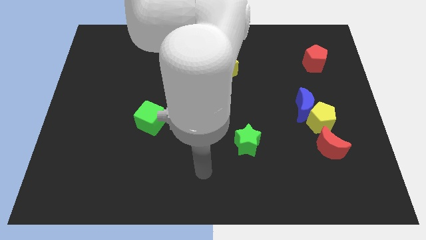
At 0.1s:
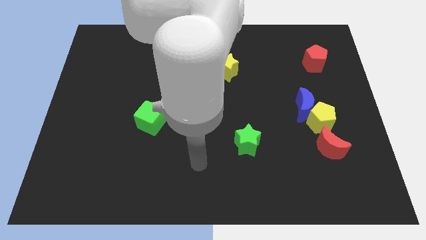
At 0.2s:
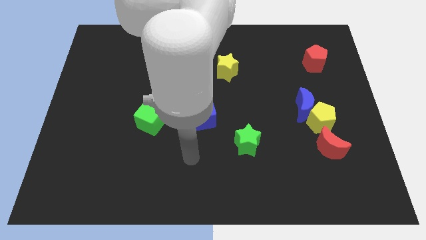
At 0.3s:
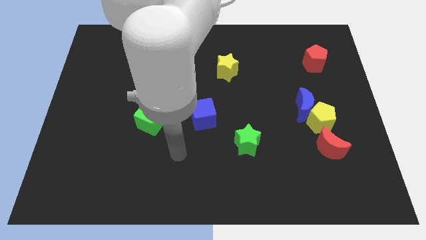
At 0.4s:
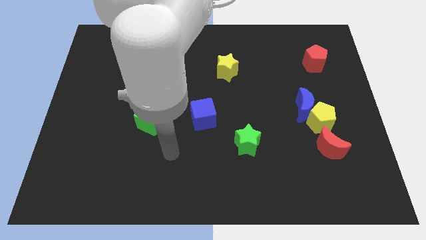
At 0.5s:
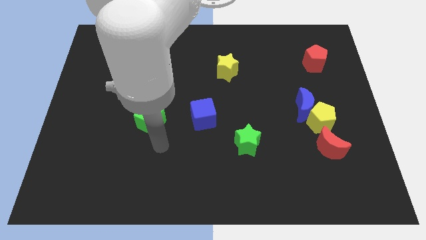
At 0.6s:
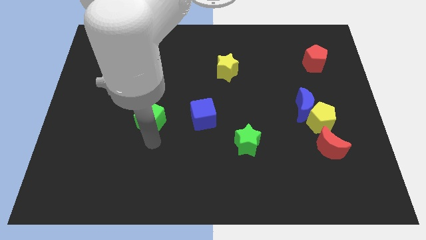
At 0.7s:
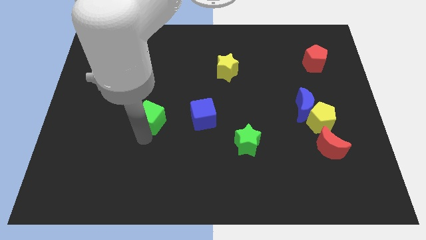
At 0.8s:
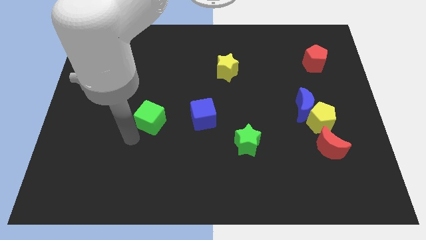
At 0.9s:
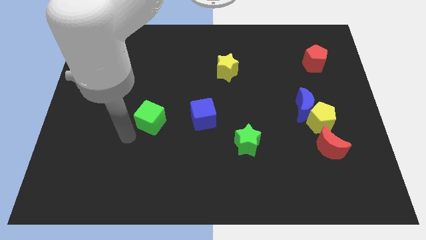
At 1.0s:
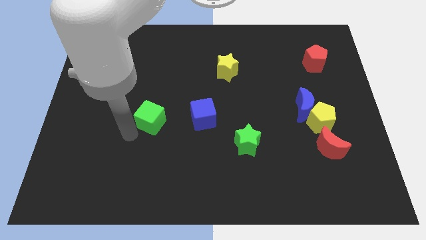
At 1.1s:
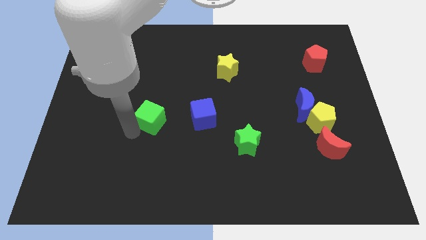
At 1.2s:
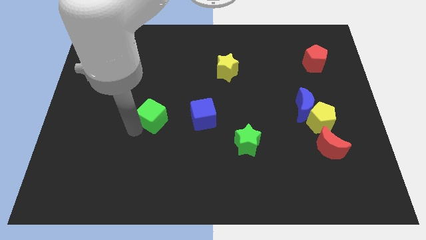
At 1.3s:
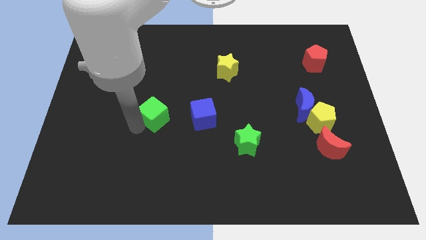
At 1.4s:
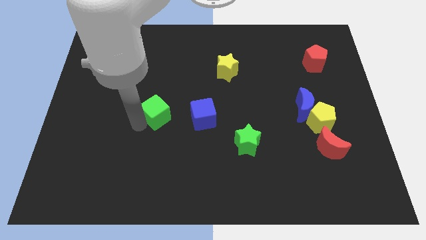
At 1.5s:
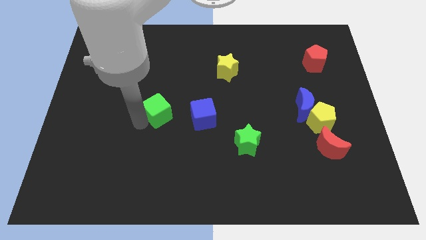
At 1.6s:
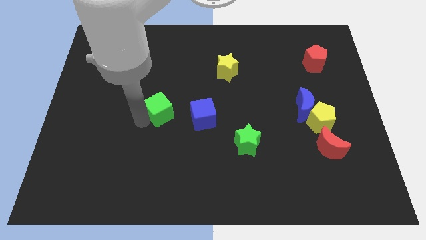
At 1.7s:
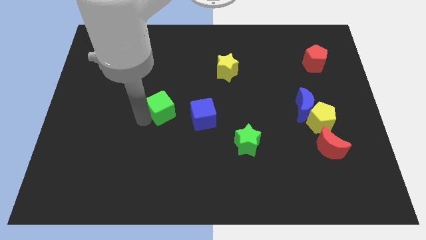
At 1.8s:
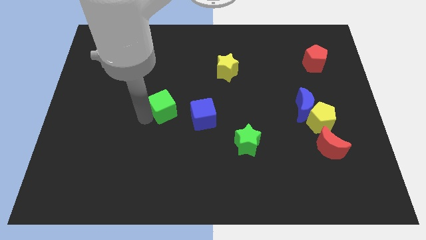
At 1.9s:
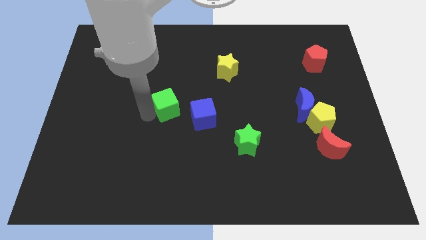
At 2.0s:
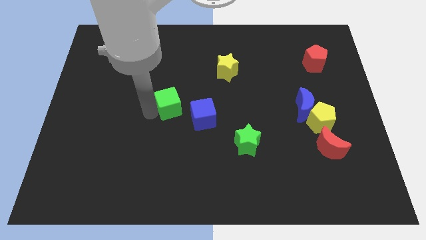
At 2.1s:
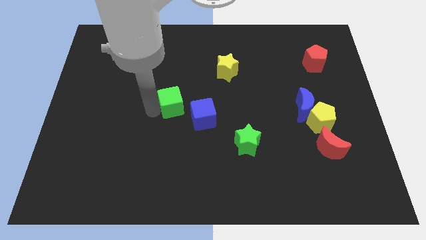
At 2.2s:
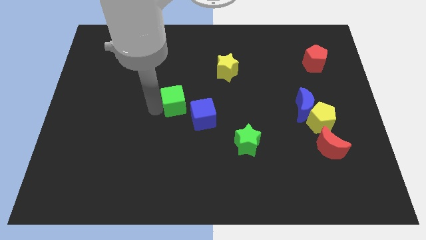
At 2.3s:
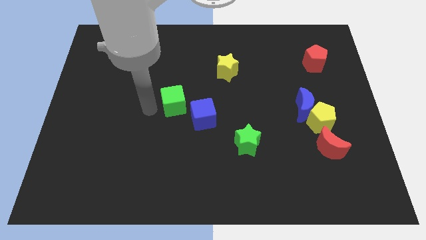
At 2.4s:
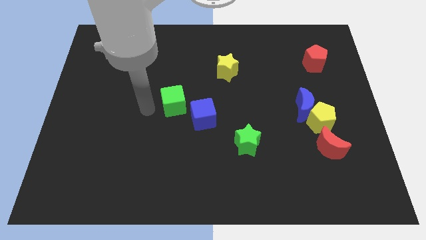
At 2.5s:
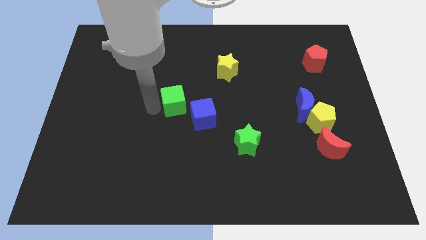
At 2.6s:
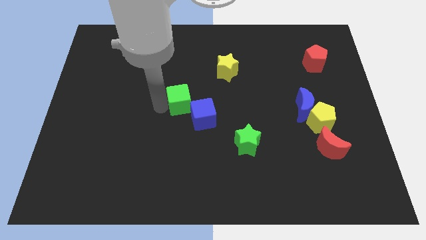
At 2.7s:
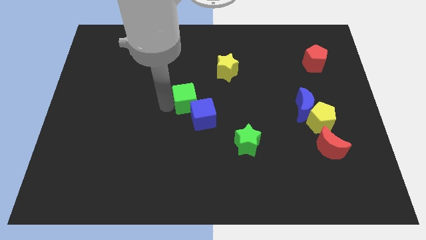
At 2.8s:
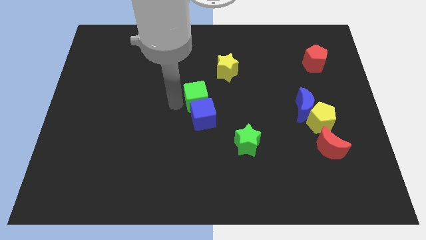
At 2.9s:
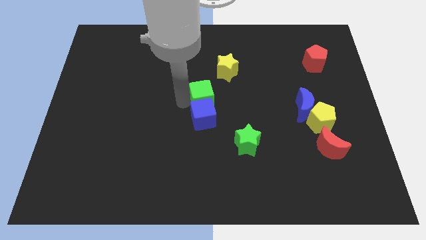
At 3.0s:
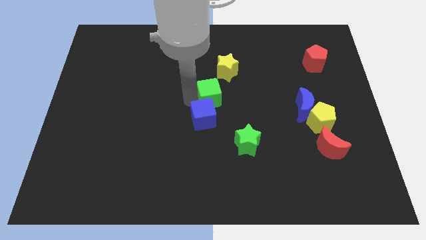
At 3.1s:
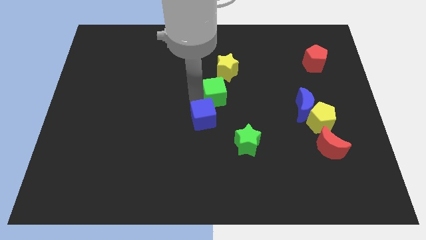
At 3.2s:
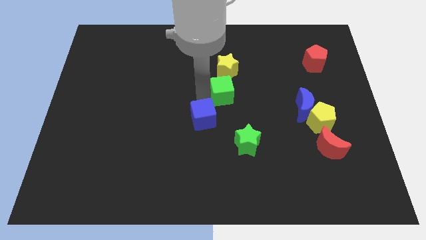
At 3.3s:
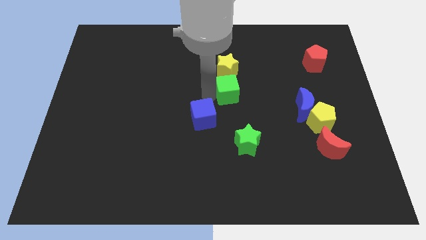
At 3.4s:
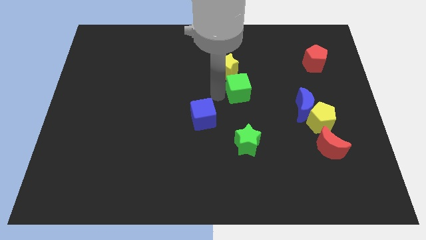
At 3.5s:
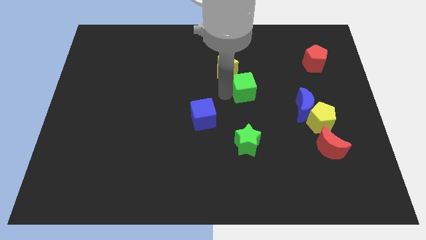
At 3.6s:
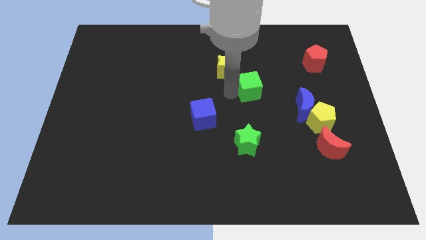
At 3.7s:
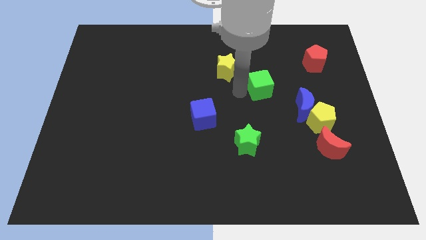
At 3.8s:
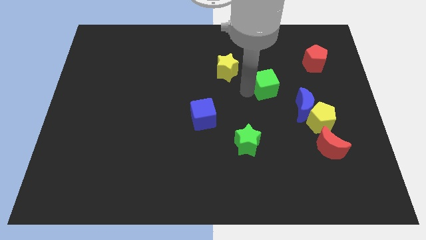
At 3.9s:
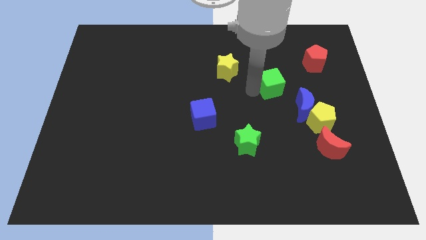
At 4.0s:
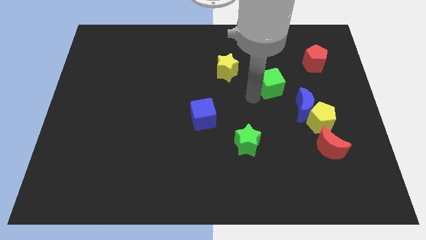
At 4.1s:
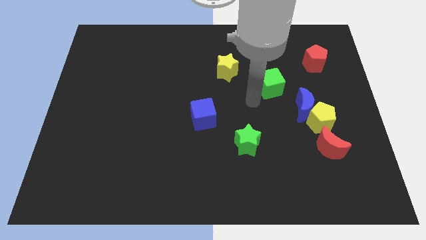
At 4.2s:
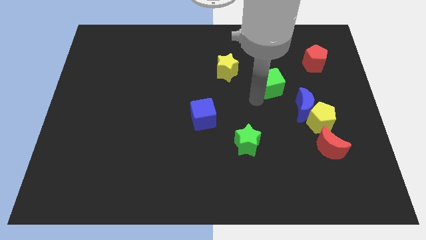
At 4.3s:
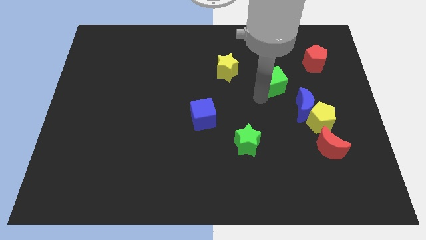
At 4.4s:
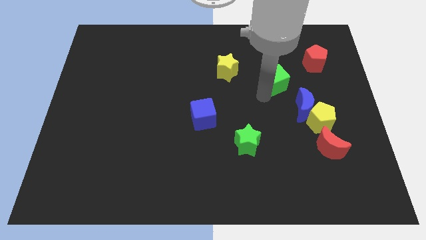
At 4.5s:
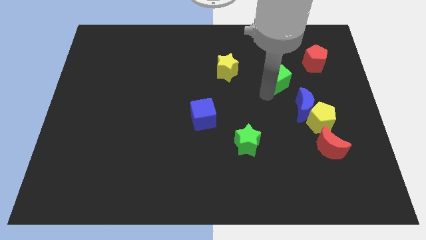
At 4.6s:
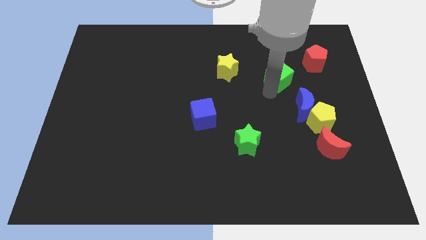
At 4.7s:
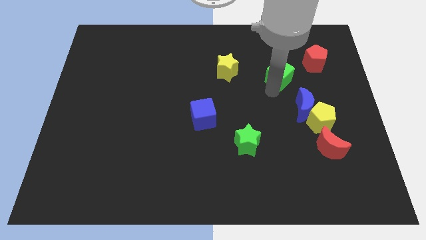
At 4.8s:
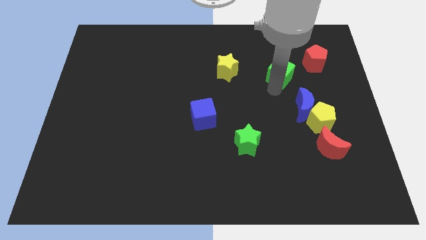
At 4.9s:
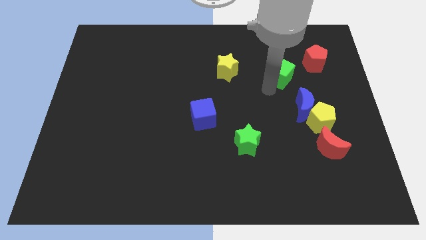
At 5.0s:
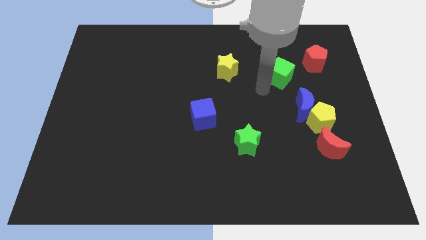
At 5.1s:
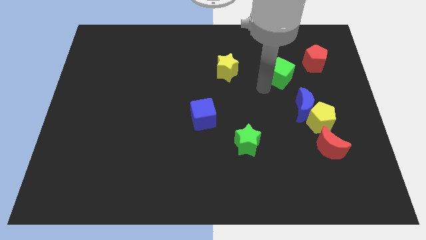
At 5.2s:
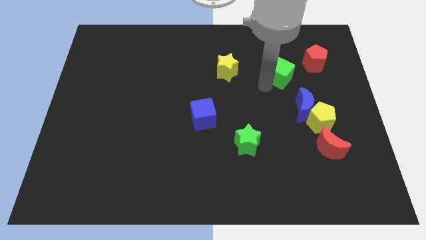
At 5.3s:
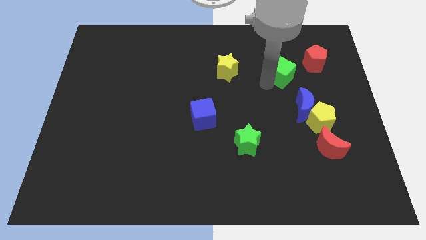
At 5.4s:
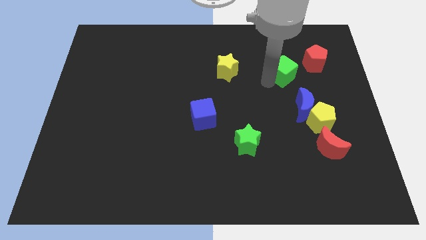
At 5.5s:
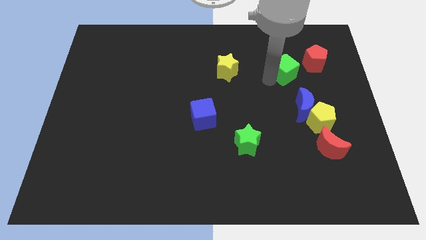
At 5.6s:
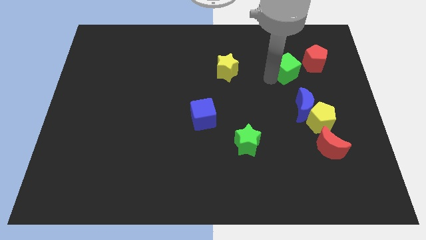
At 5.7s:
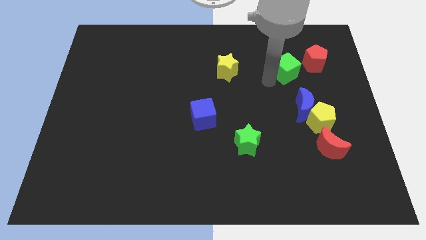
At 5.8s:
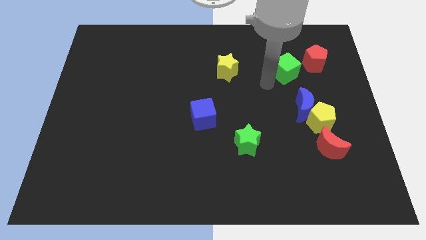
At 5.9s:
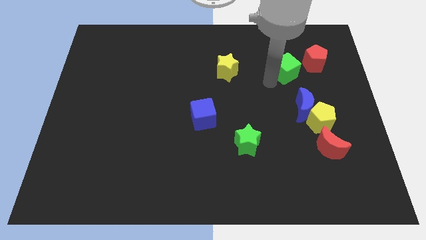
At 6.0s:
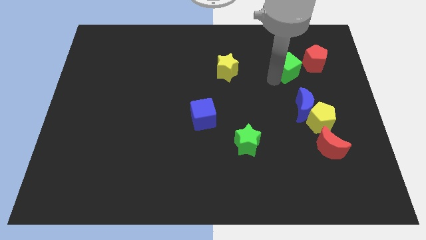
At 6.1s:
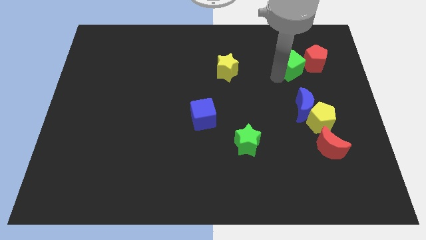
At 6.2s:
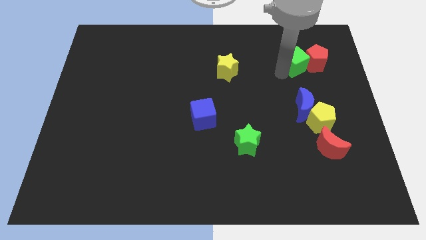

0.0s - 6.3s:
slide the green cube towards the red pentagon

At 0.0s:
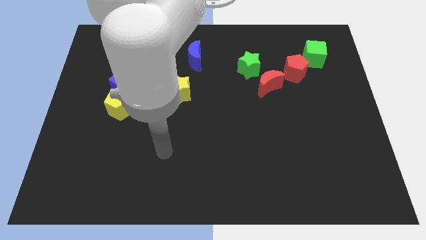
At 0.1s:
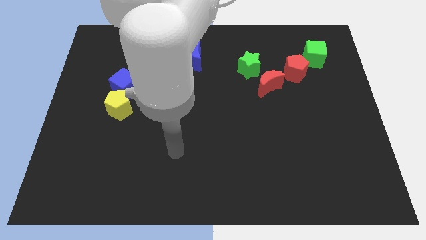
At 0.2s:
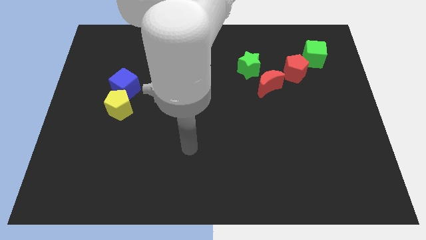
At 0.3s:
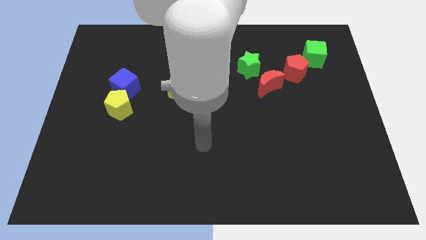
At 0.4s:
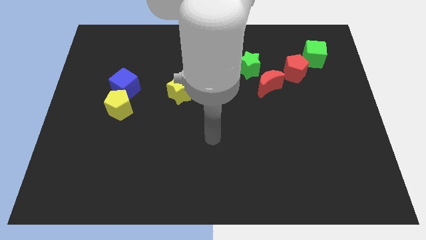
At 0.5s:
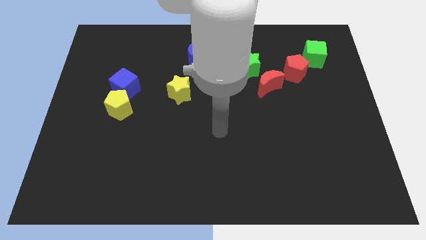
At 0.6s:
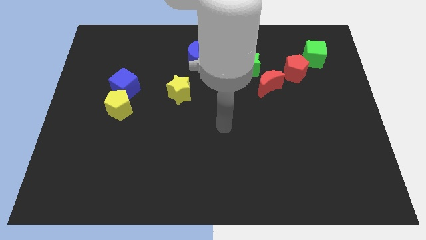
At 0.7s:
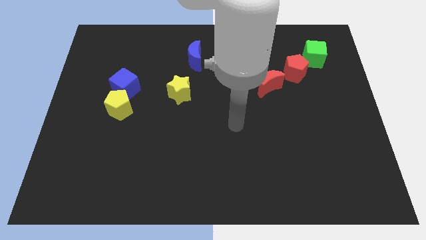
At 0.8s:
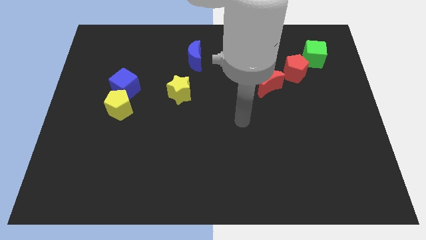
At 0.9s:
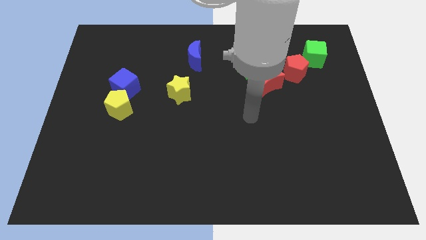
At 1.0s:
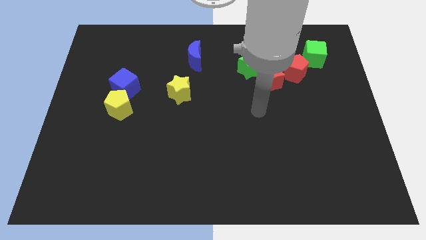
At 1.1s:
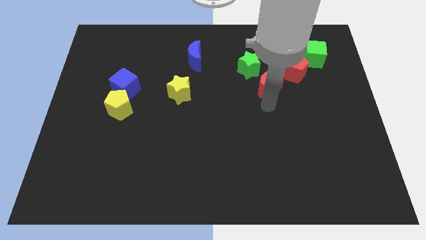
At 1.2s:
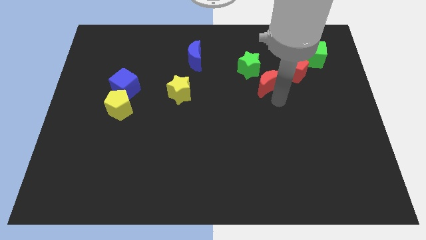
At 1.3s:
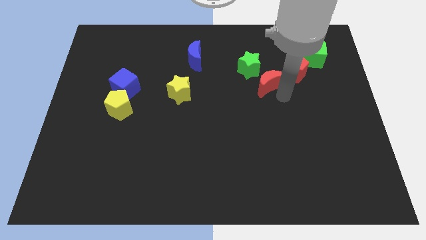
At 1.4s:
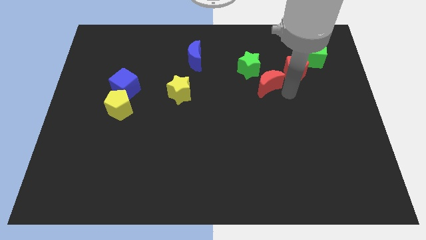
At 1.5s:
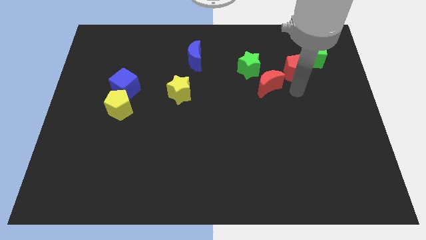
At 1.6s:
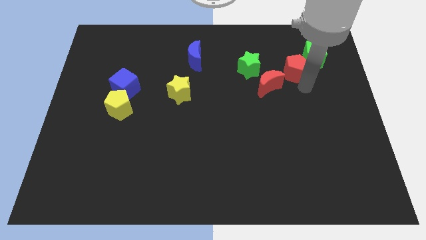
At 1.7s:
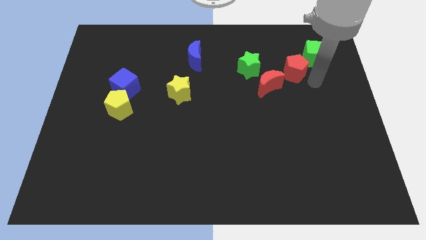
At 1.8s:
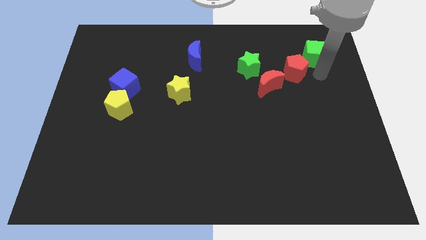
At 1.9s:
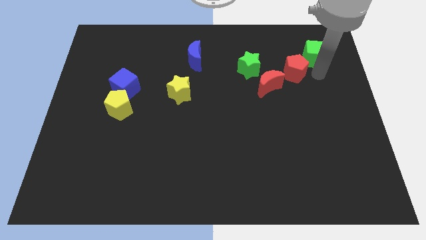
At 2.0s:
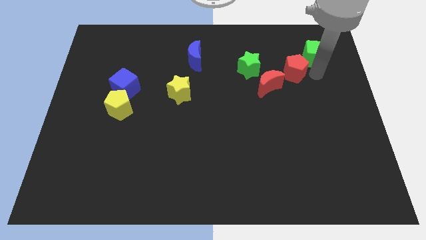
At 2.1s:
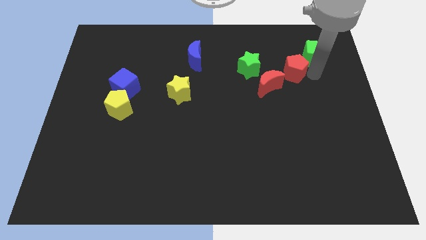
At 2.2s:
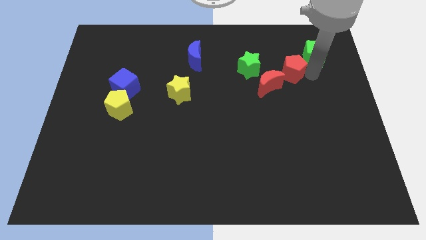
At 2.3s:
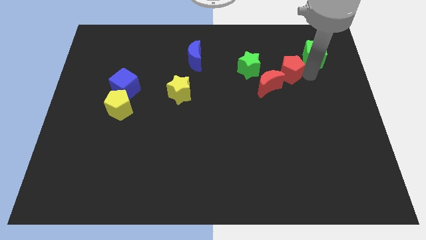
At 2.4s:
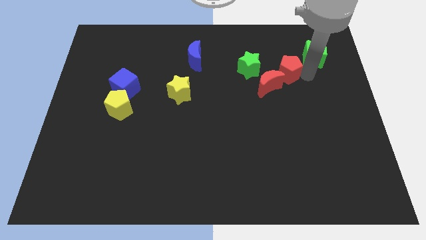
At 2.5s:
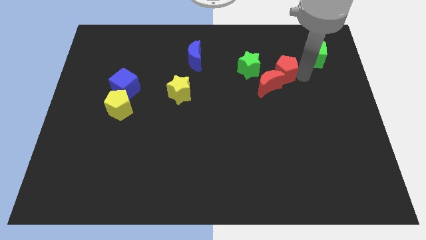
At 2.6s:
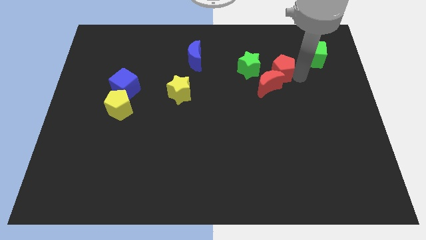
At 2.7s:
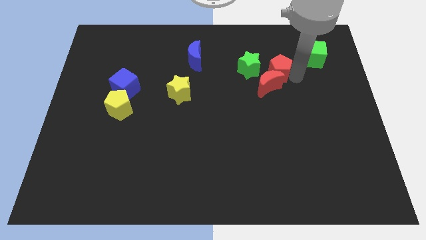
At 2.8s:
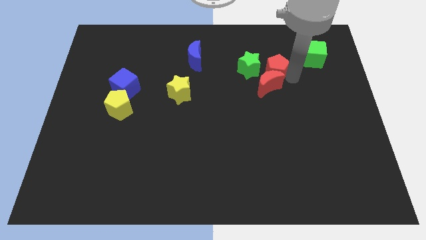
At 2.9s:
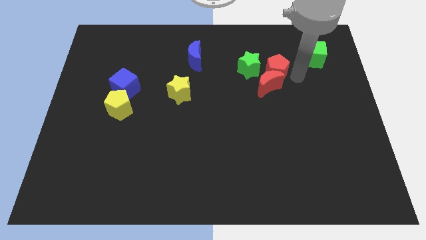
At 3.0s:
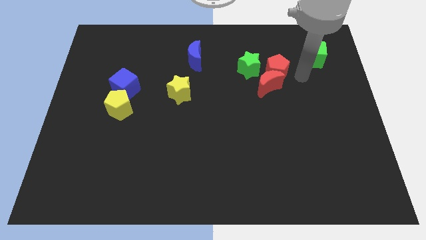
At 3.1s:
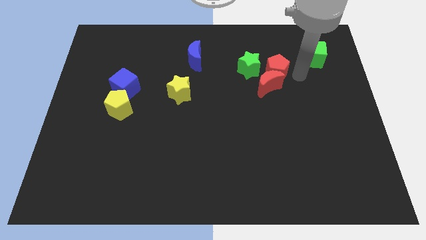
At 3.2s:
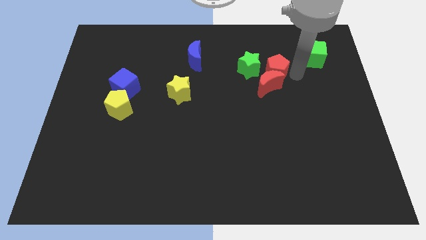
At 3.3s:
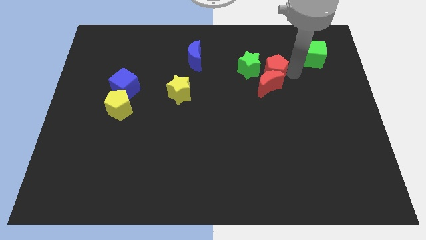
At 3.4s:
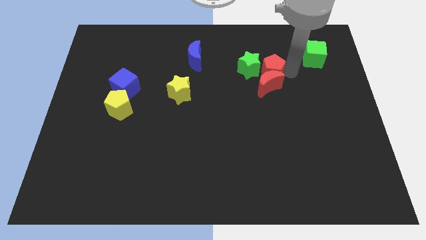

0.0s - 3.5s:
push the red pentagon to the green star
